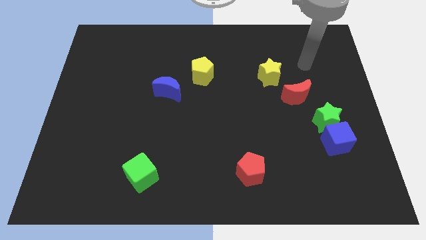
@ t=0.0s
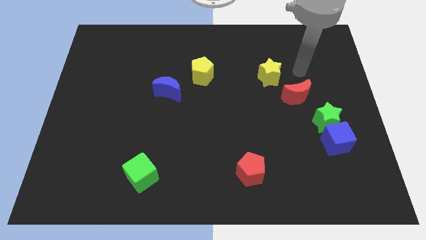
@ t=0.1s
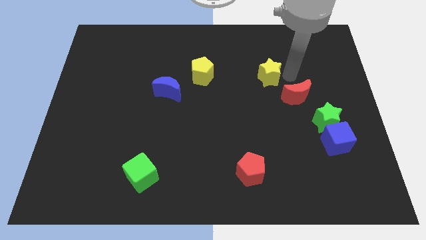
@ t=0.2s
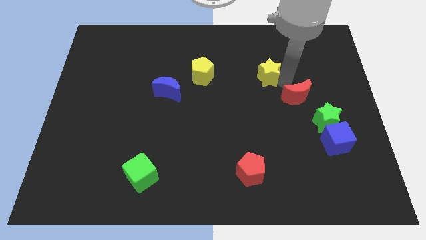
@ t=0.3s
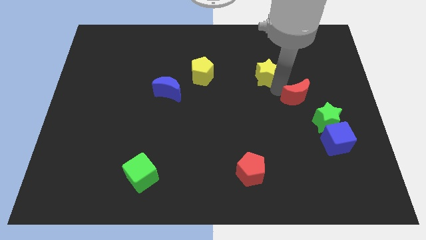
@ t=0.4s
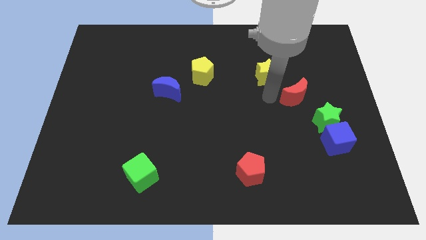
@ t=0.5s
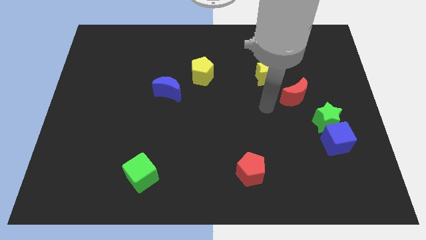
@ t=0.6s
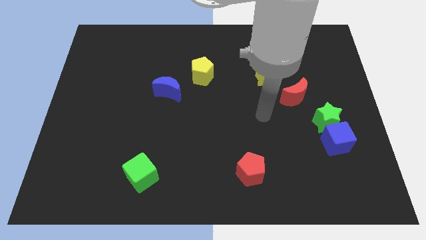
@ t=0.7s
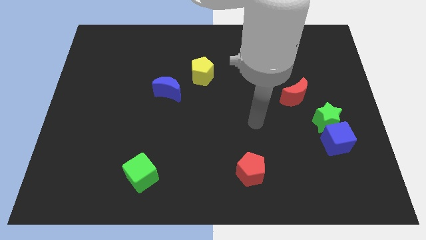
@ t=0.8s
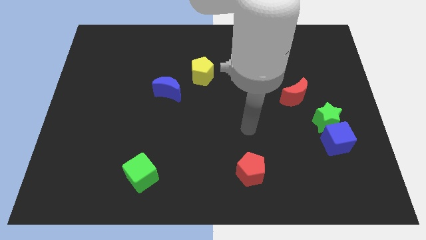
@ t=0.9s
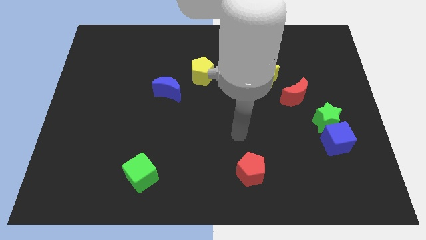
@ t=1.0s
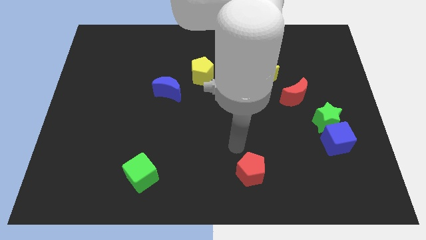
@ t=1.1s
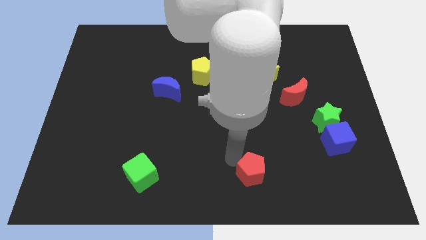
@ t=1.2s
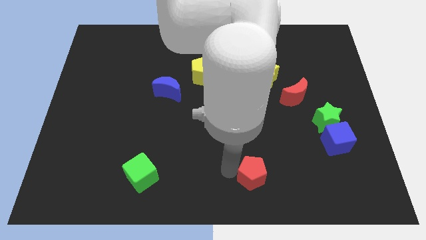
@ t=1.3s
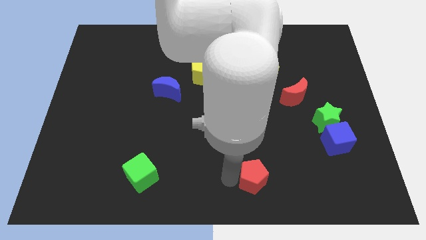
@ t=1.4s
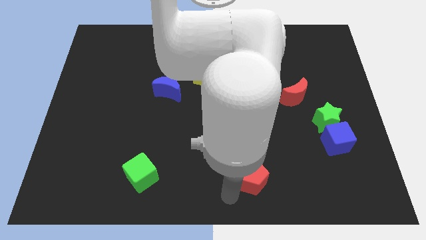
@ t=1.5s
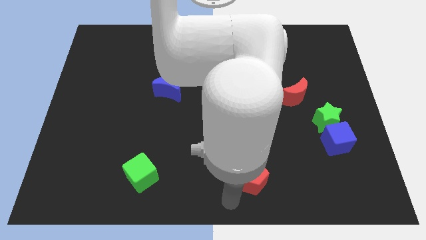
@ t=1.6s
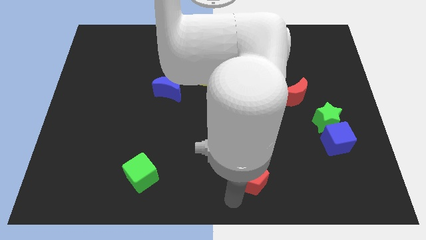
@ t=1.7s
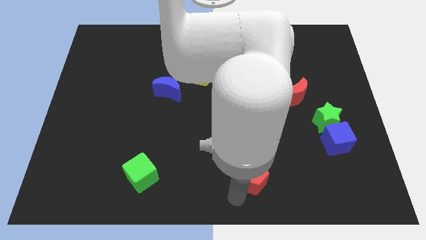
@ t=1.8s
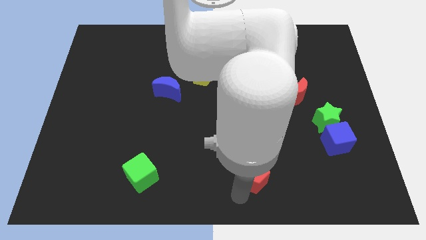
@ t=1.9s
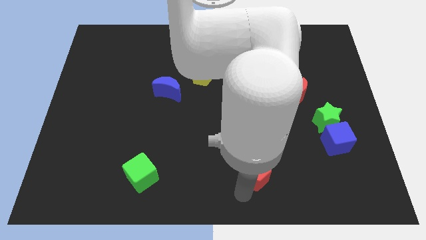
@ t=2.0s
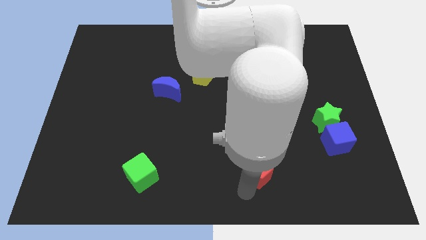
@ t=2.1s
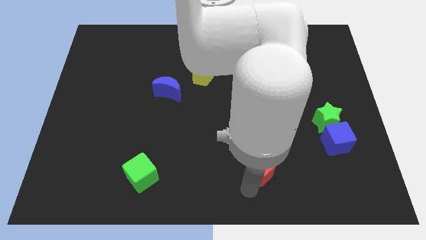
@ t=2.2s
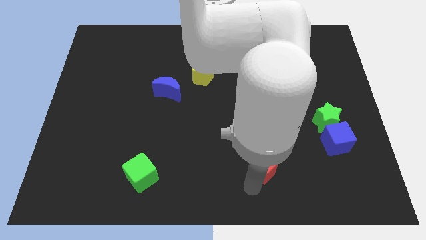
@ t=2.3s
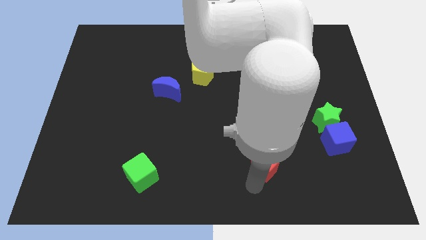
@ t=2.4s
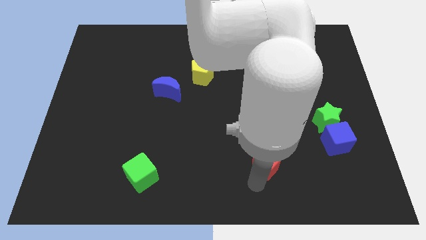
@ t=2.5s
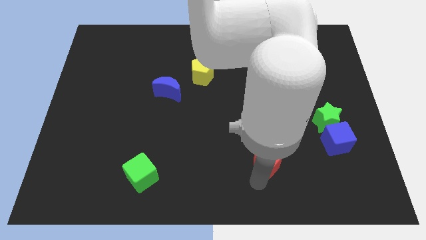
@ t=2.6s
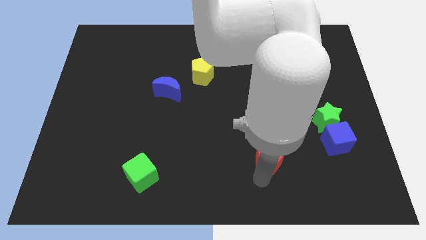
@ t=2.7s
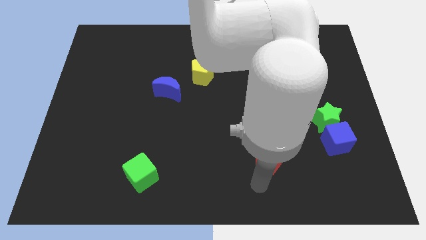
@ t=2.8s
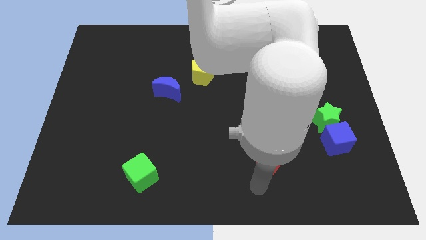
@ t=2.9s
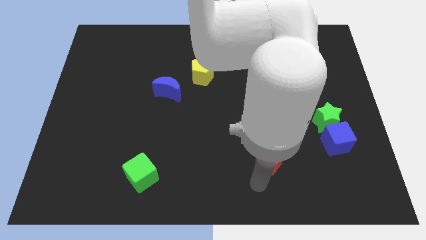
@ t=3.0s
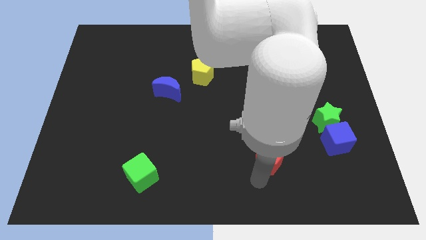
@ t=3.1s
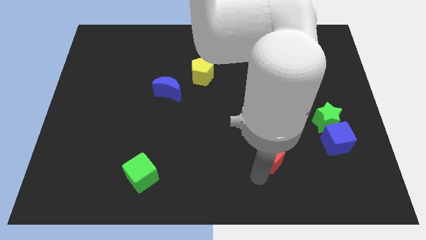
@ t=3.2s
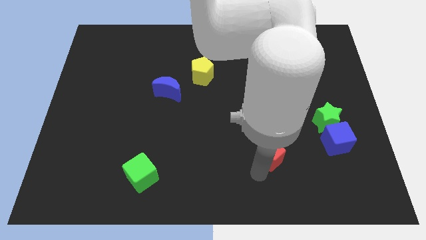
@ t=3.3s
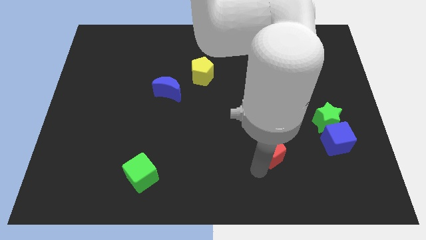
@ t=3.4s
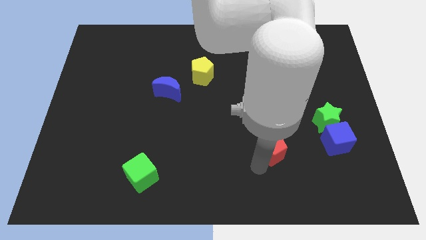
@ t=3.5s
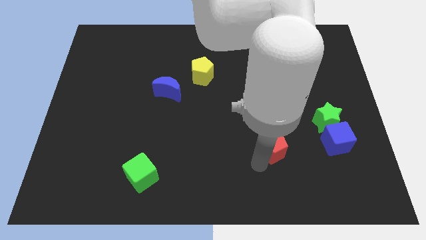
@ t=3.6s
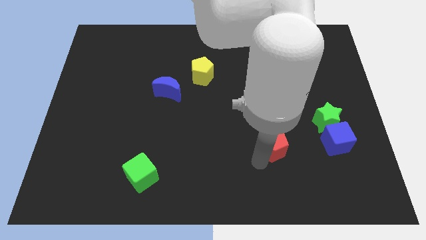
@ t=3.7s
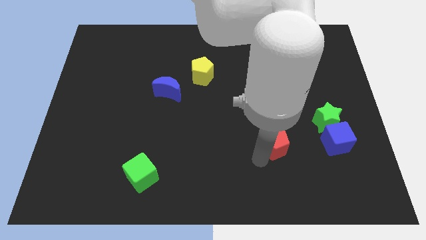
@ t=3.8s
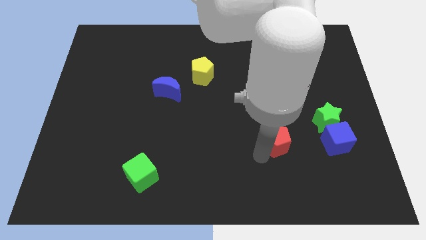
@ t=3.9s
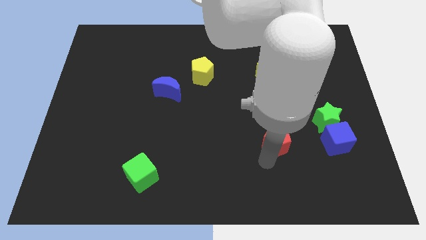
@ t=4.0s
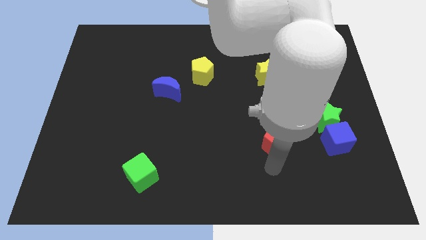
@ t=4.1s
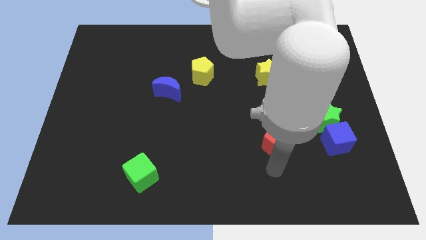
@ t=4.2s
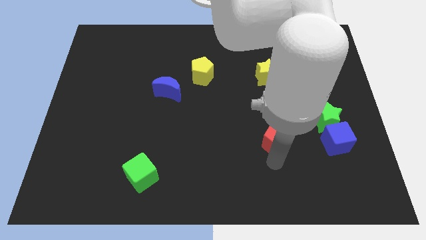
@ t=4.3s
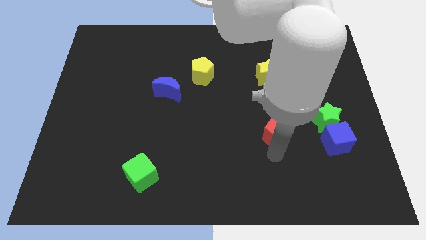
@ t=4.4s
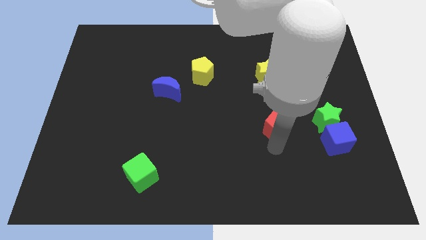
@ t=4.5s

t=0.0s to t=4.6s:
slide the red pentagon to the bottom left side of the red moon

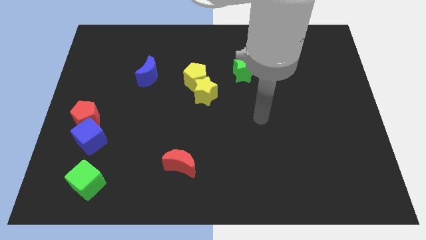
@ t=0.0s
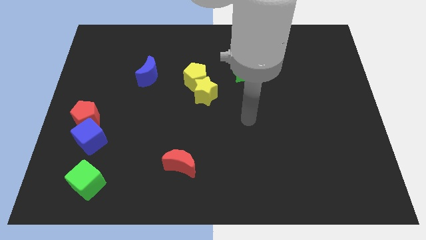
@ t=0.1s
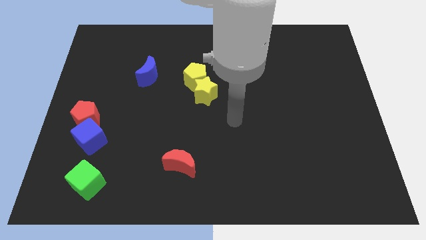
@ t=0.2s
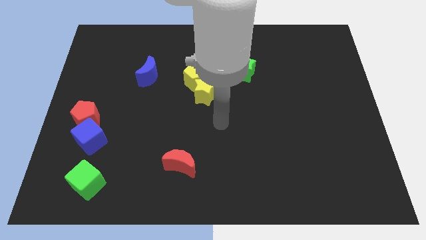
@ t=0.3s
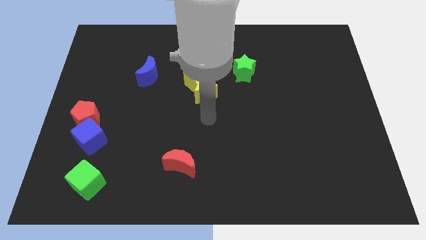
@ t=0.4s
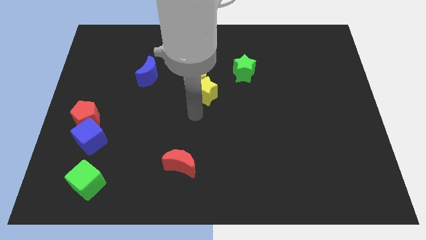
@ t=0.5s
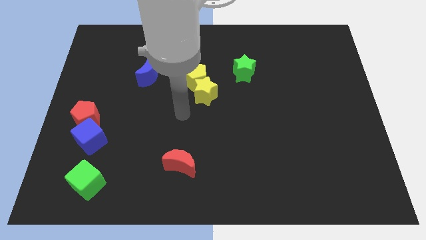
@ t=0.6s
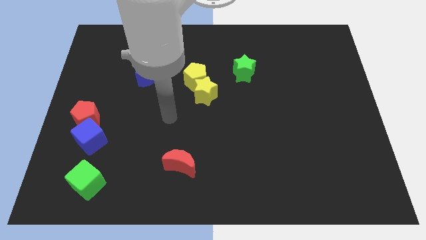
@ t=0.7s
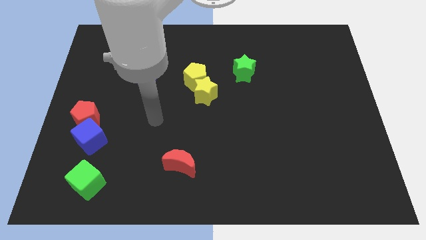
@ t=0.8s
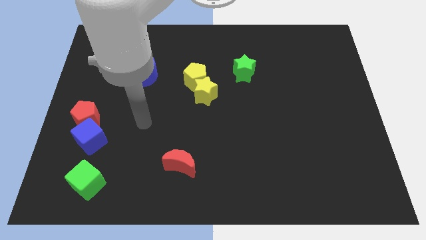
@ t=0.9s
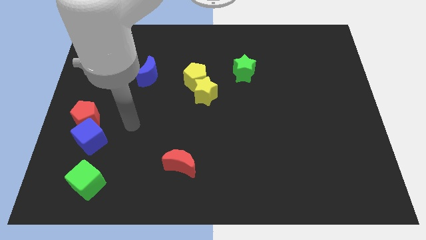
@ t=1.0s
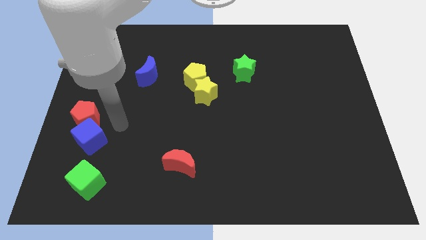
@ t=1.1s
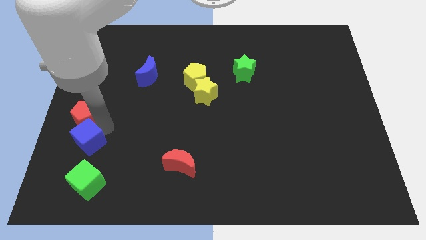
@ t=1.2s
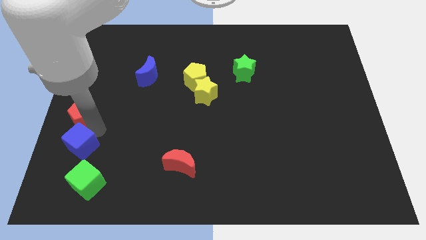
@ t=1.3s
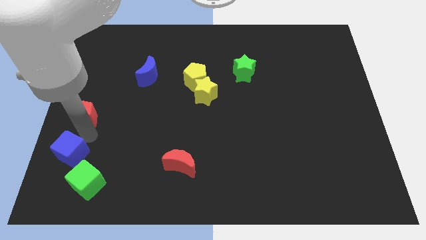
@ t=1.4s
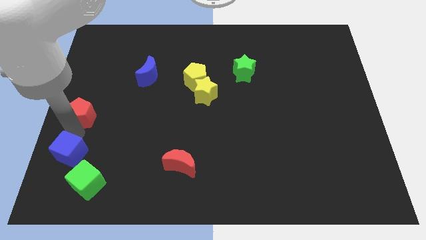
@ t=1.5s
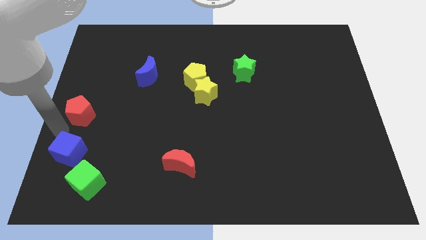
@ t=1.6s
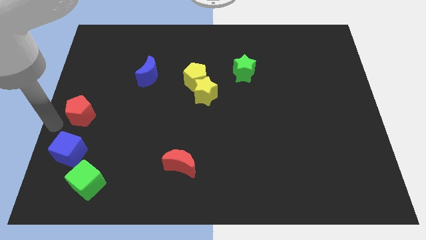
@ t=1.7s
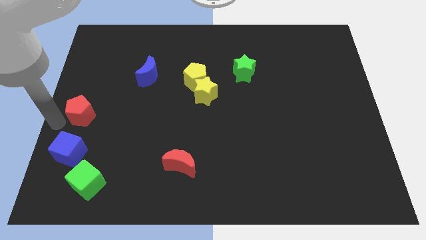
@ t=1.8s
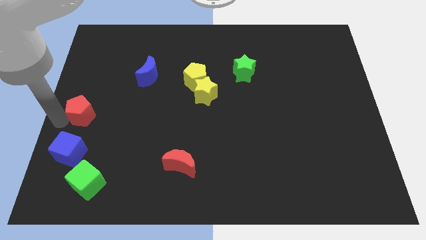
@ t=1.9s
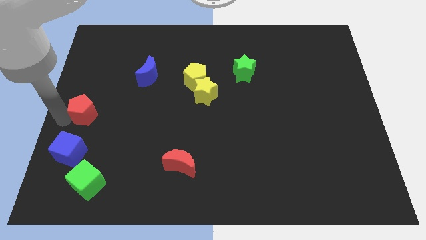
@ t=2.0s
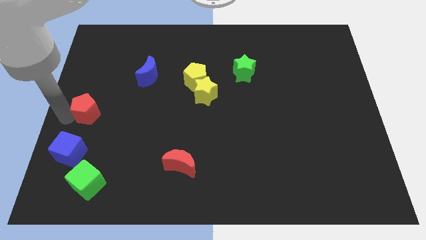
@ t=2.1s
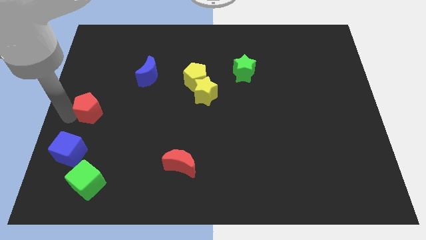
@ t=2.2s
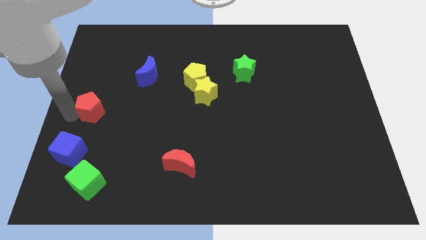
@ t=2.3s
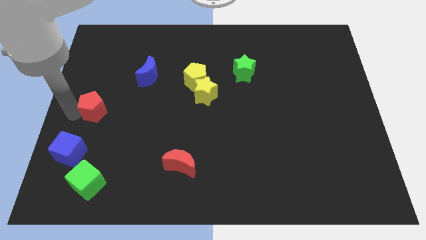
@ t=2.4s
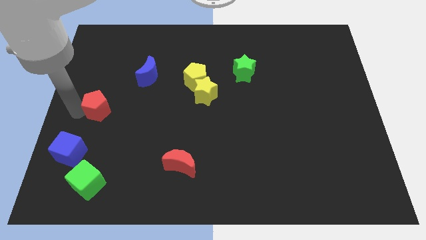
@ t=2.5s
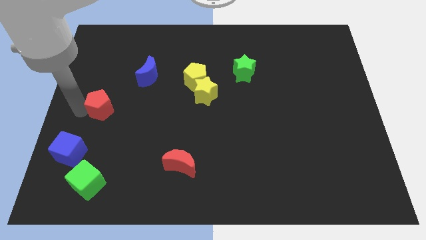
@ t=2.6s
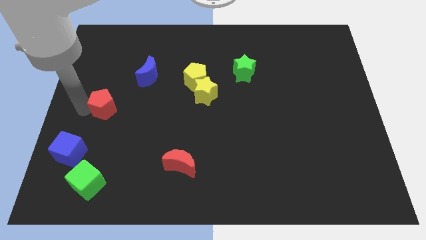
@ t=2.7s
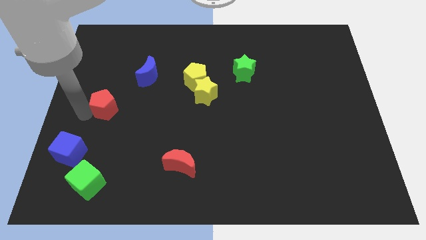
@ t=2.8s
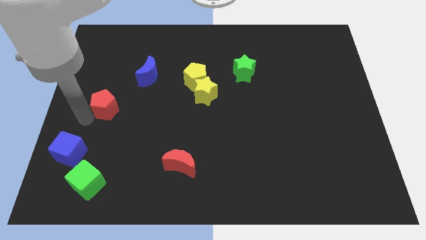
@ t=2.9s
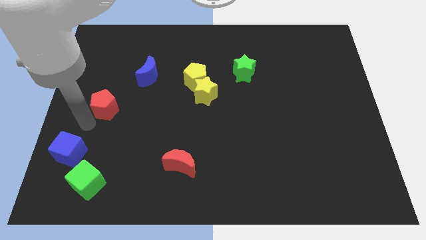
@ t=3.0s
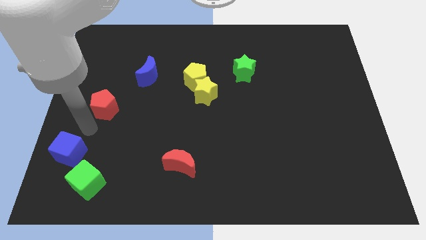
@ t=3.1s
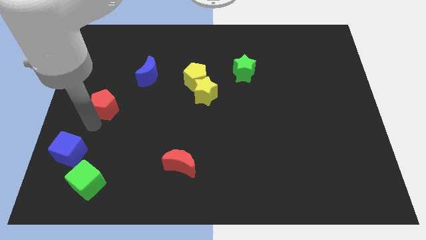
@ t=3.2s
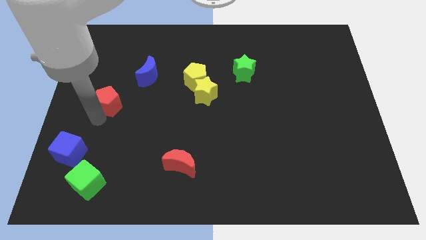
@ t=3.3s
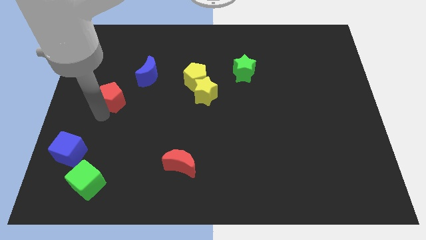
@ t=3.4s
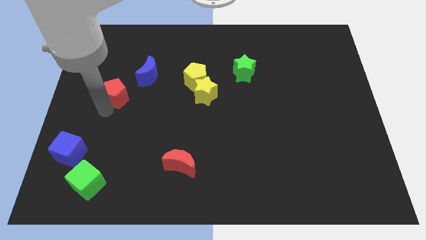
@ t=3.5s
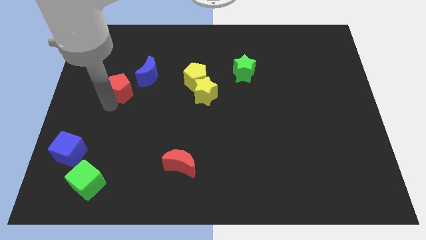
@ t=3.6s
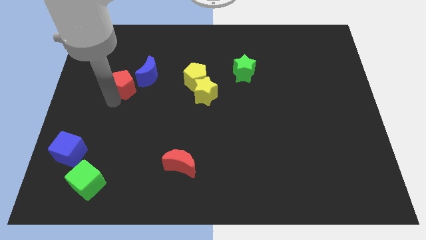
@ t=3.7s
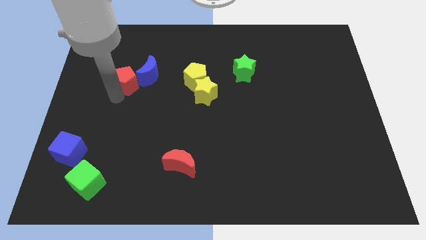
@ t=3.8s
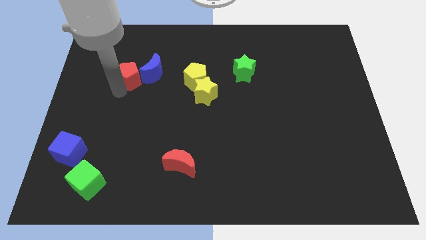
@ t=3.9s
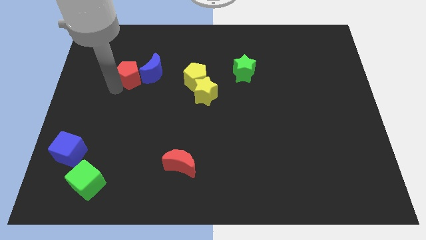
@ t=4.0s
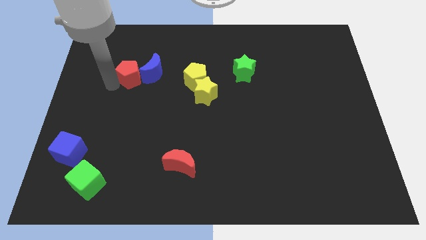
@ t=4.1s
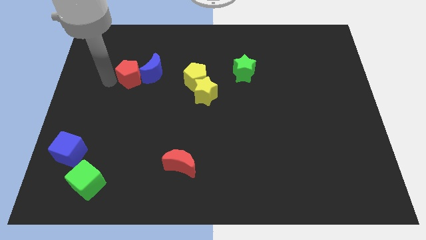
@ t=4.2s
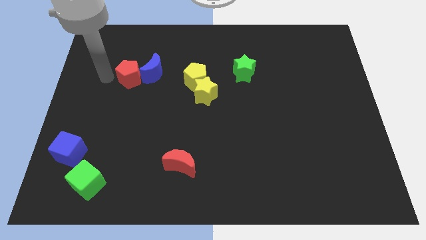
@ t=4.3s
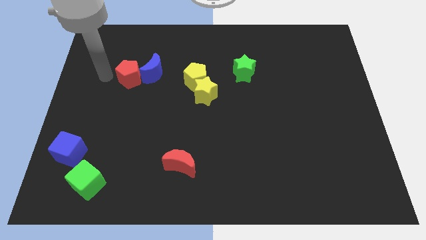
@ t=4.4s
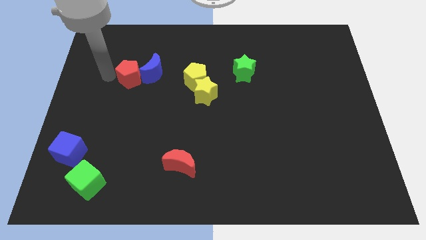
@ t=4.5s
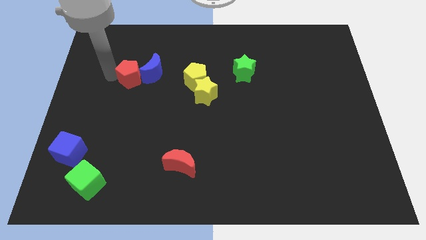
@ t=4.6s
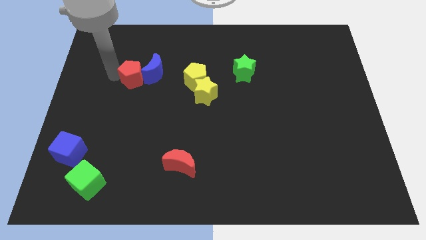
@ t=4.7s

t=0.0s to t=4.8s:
push the red pentagon just left of the yellow pentagon
